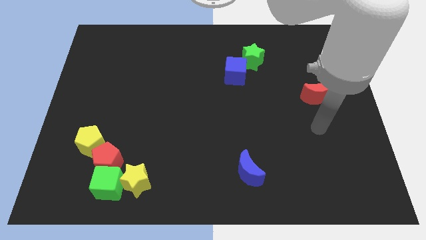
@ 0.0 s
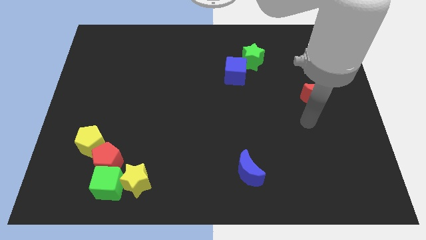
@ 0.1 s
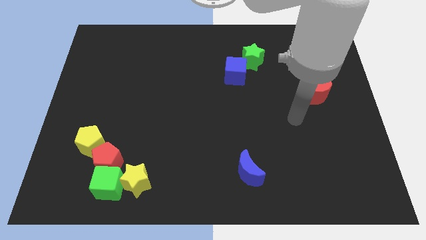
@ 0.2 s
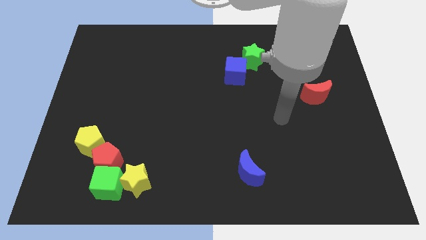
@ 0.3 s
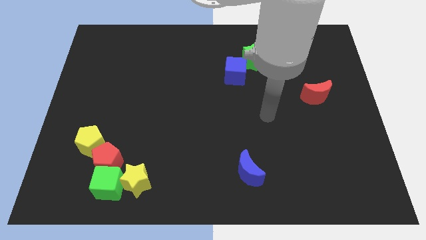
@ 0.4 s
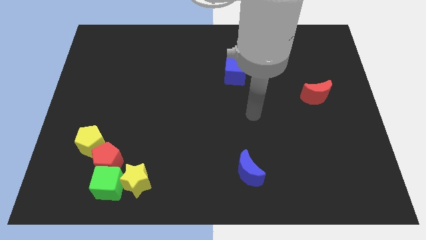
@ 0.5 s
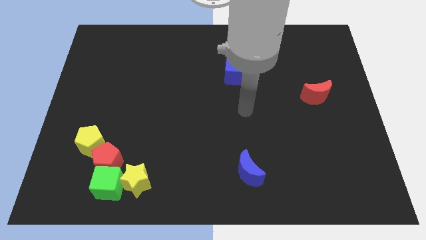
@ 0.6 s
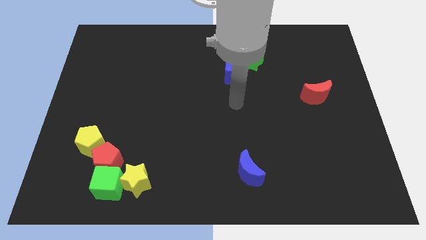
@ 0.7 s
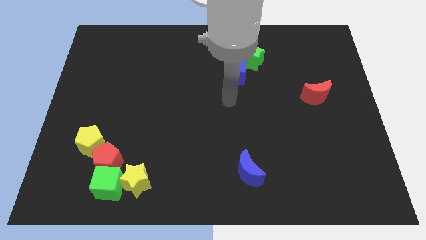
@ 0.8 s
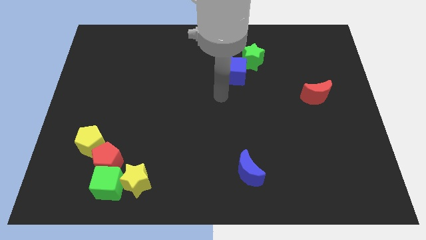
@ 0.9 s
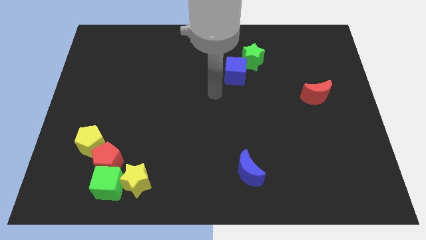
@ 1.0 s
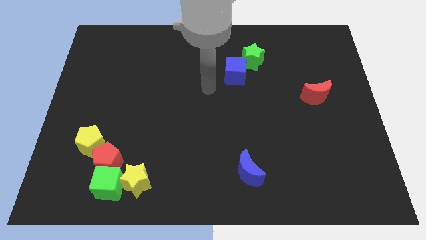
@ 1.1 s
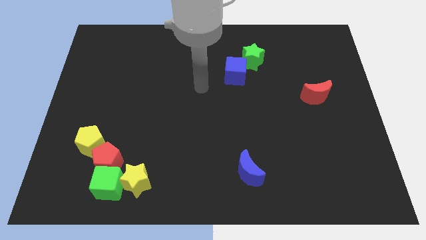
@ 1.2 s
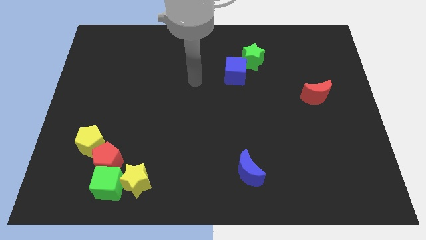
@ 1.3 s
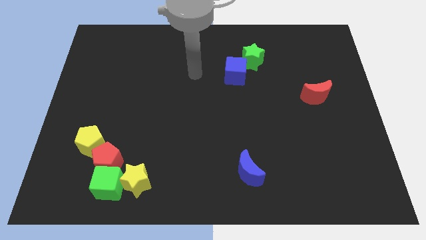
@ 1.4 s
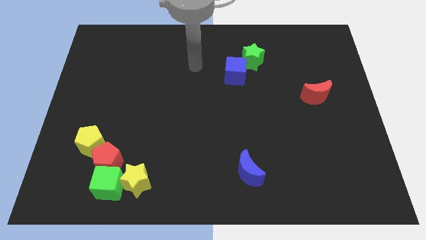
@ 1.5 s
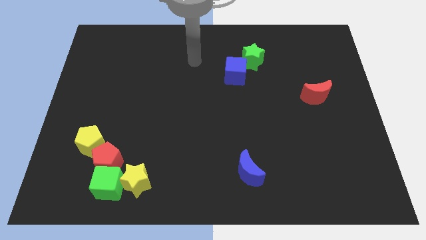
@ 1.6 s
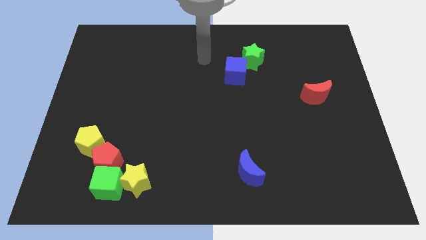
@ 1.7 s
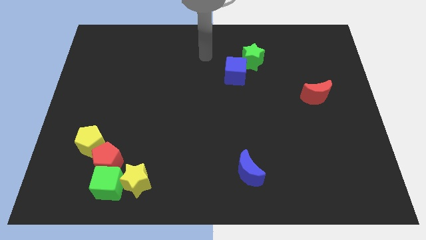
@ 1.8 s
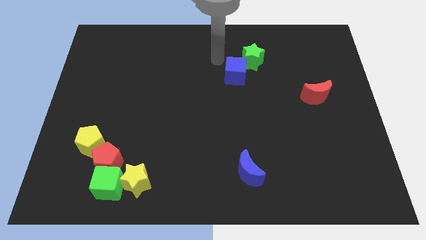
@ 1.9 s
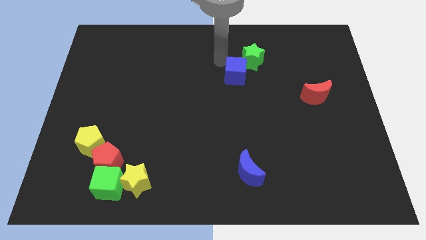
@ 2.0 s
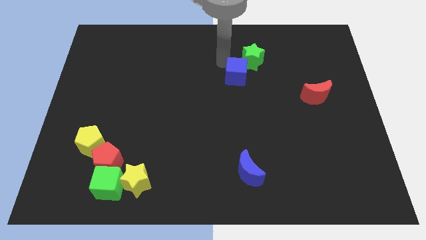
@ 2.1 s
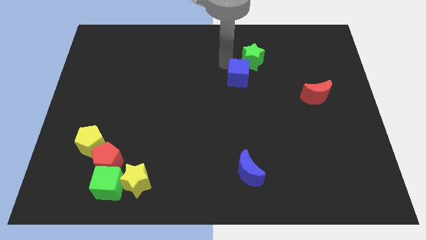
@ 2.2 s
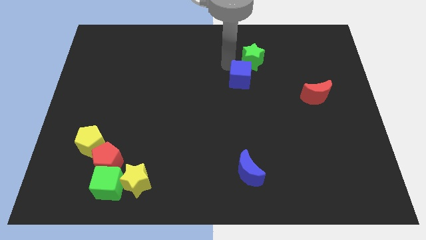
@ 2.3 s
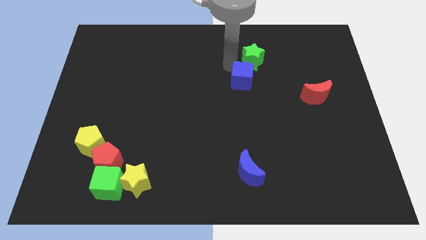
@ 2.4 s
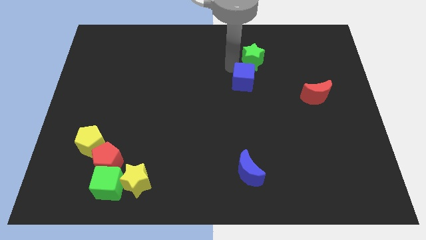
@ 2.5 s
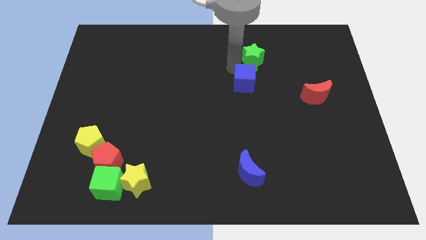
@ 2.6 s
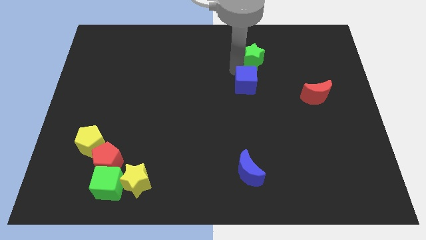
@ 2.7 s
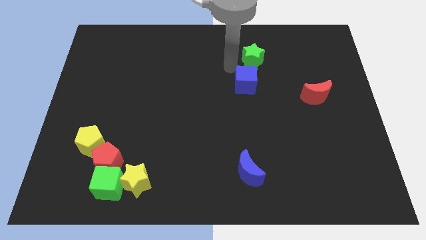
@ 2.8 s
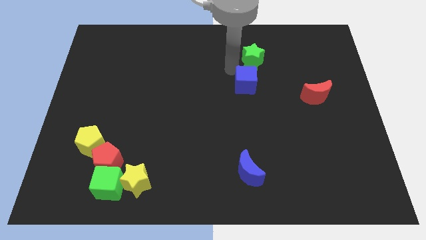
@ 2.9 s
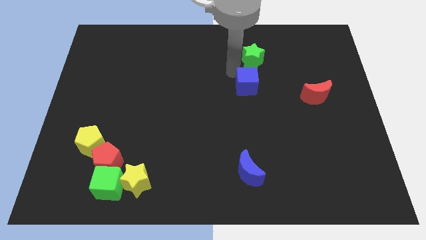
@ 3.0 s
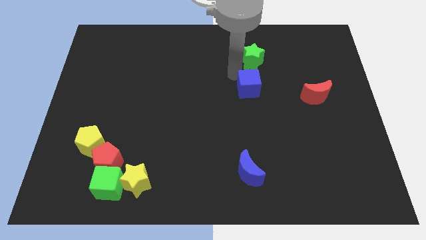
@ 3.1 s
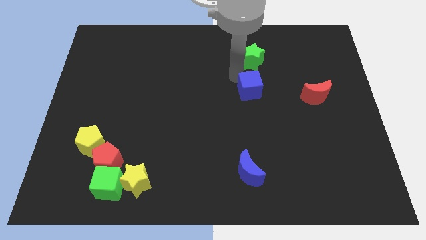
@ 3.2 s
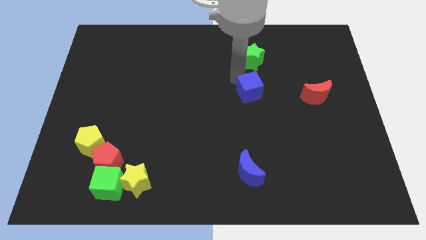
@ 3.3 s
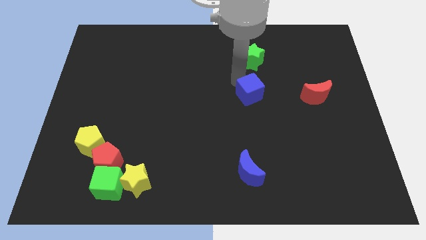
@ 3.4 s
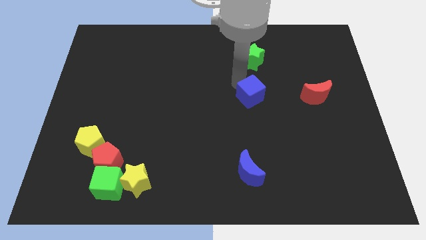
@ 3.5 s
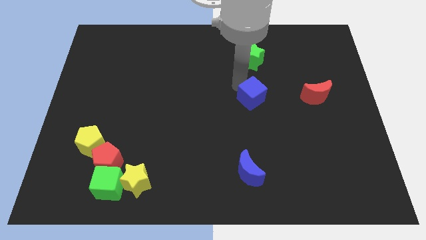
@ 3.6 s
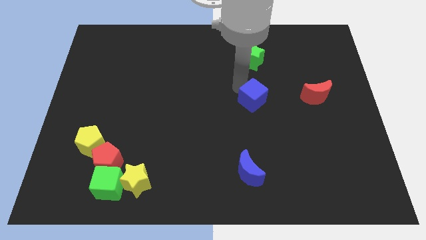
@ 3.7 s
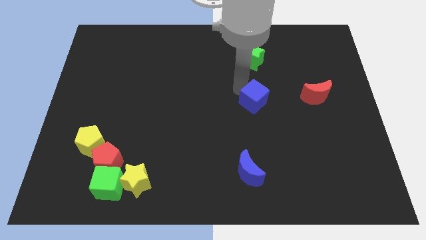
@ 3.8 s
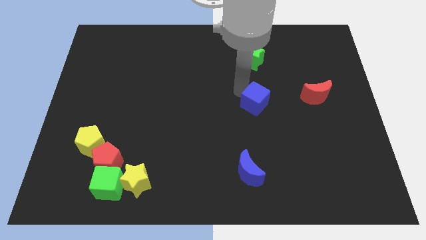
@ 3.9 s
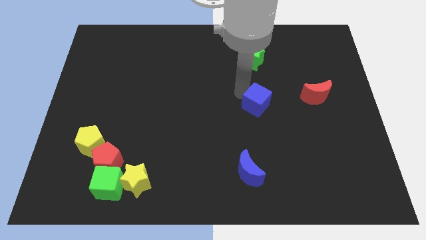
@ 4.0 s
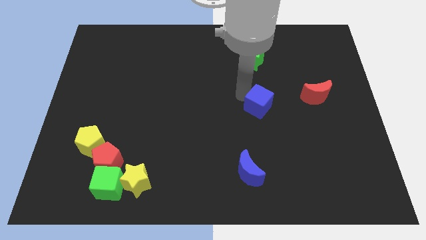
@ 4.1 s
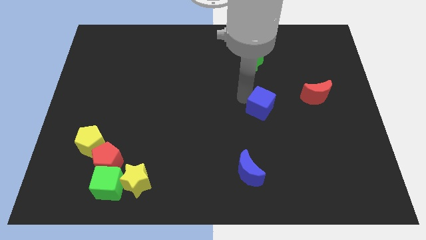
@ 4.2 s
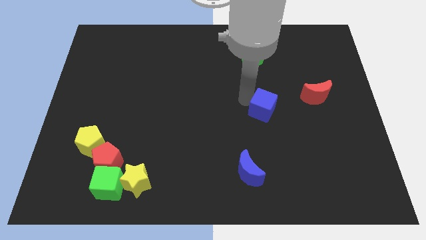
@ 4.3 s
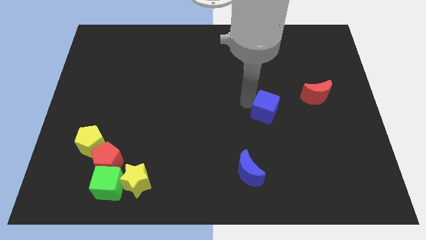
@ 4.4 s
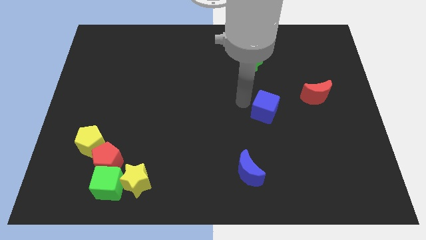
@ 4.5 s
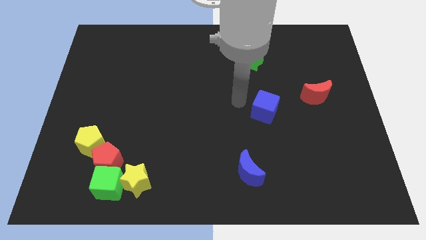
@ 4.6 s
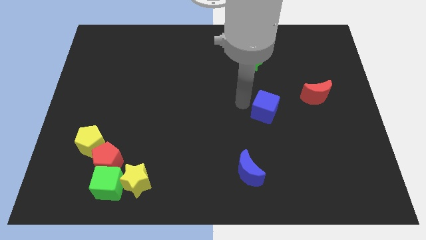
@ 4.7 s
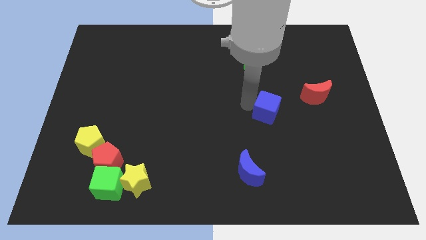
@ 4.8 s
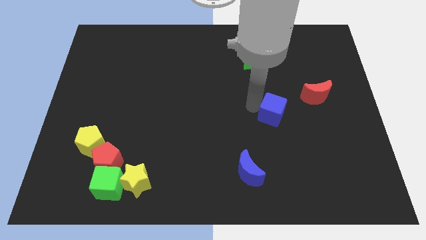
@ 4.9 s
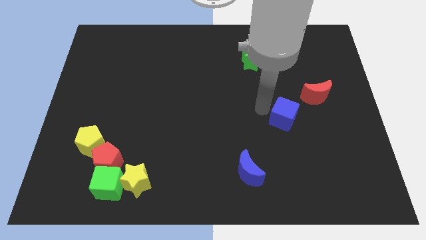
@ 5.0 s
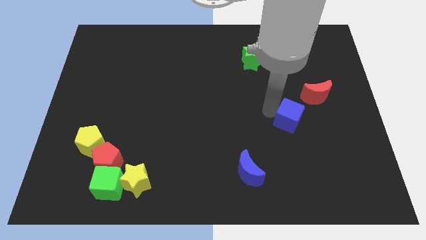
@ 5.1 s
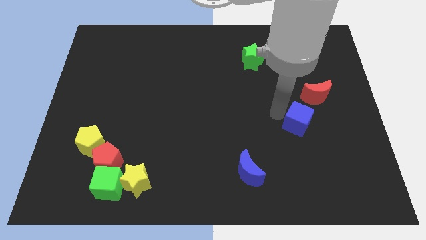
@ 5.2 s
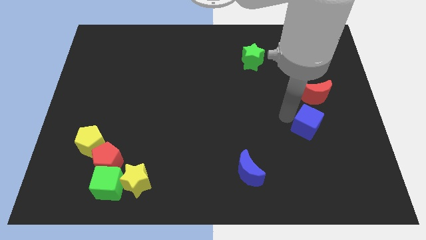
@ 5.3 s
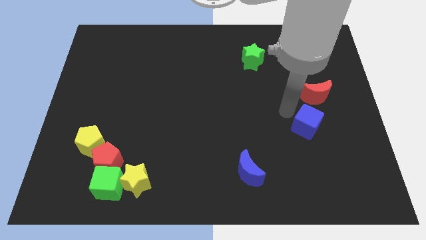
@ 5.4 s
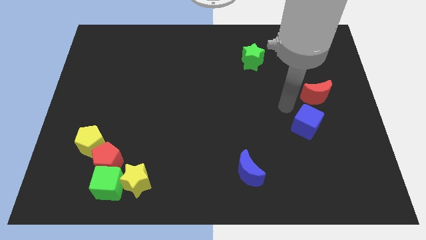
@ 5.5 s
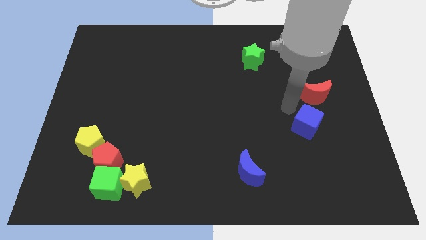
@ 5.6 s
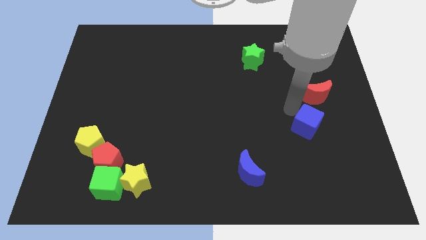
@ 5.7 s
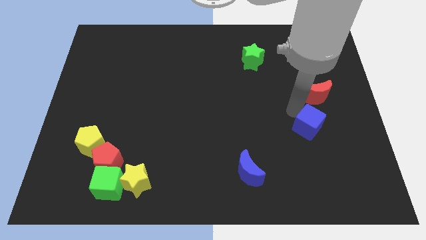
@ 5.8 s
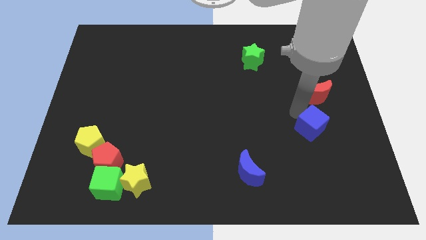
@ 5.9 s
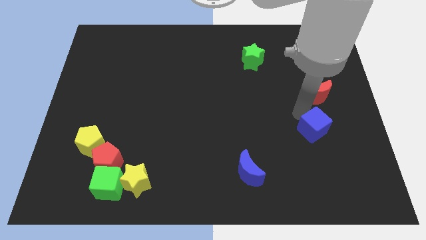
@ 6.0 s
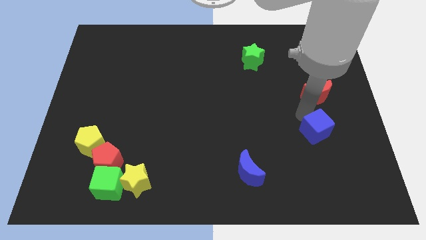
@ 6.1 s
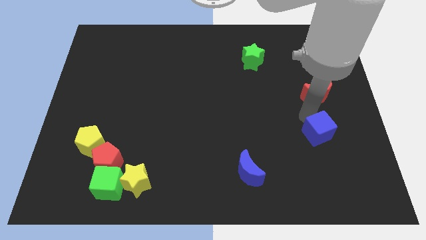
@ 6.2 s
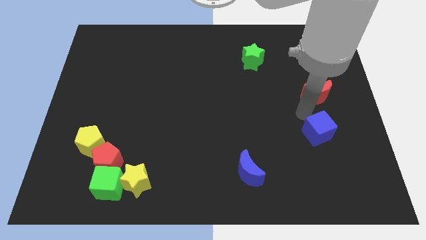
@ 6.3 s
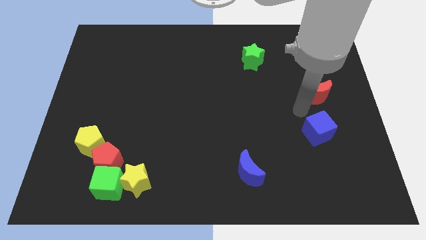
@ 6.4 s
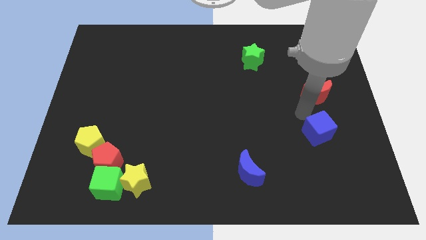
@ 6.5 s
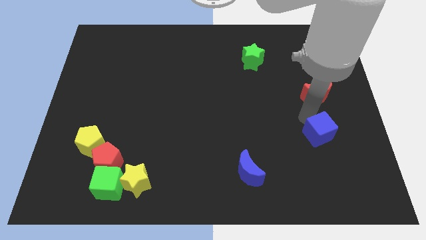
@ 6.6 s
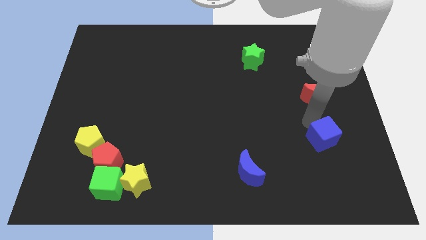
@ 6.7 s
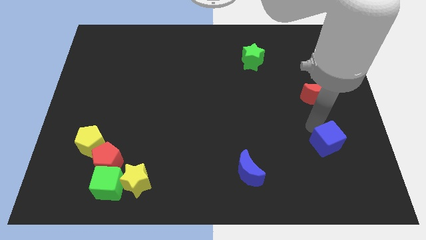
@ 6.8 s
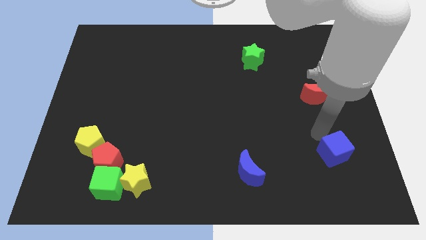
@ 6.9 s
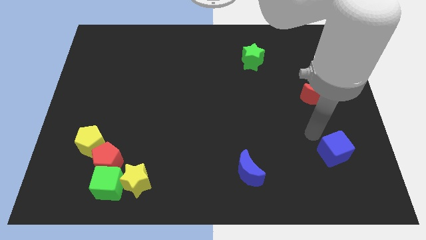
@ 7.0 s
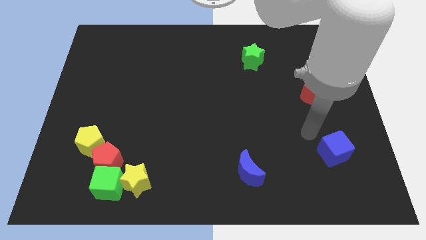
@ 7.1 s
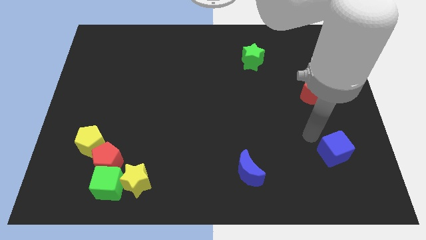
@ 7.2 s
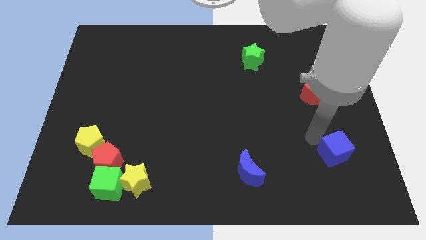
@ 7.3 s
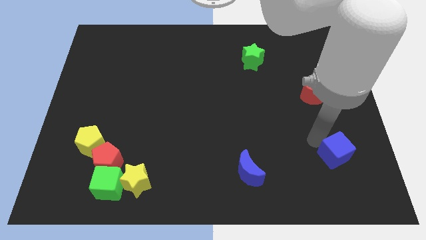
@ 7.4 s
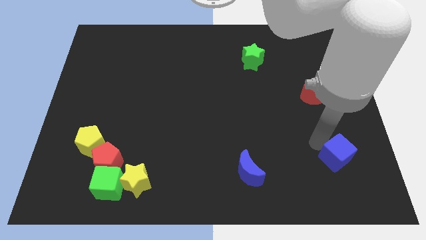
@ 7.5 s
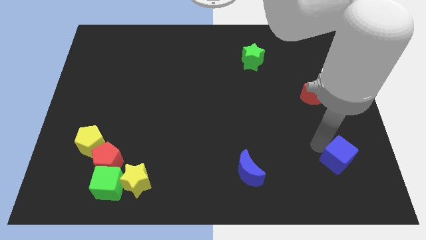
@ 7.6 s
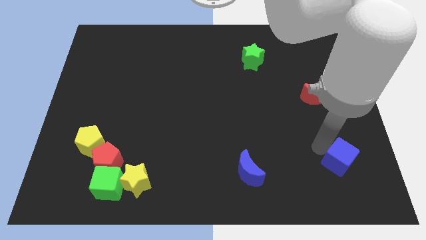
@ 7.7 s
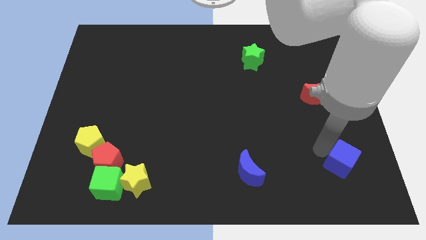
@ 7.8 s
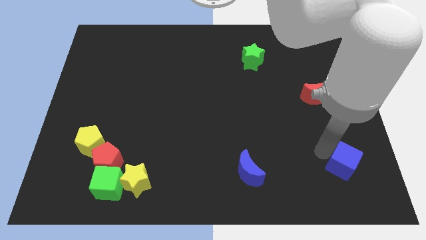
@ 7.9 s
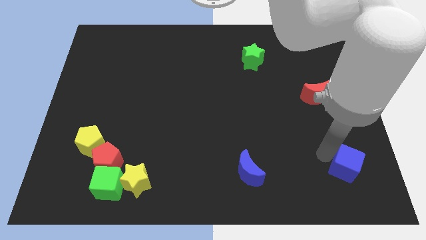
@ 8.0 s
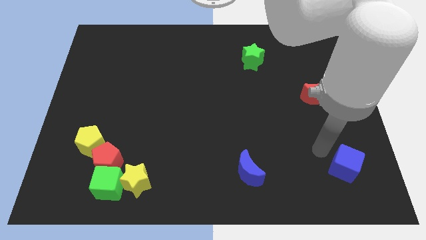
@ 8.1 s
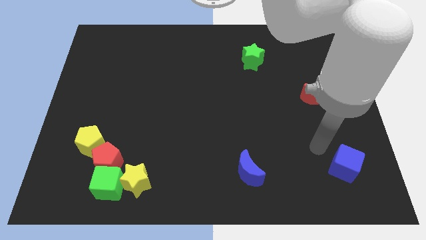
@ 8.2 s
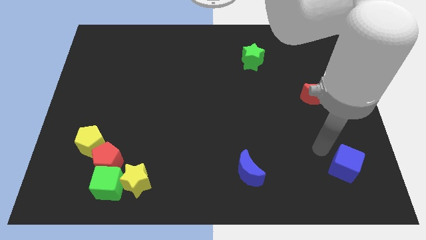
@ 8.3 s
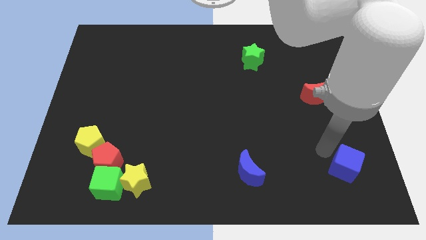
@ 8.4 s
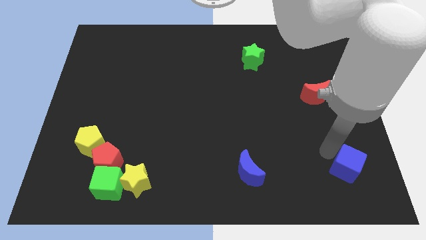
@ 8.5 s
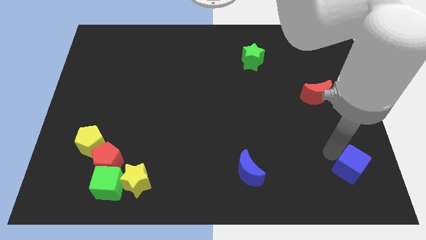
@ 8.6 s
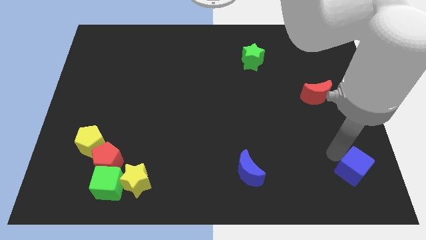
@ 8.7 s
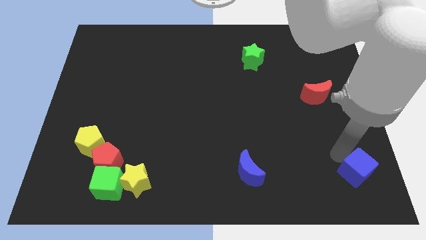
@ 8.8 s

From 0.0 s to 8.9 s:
move the blue cube to the bottom right of the board
